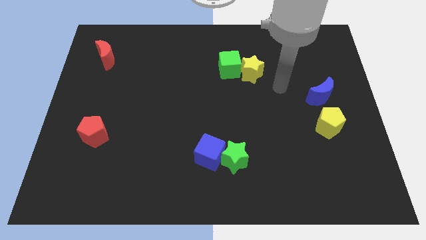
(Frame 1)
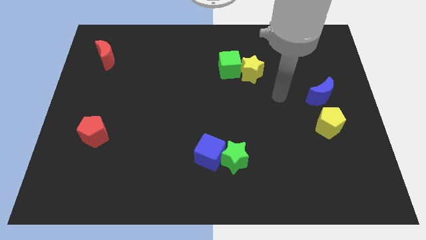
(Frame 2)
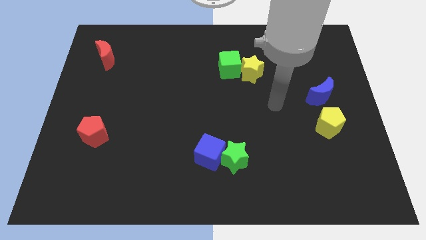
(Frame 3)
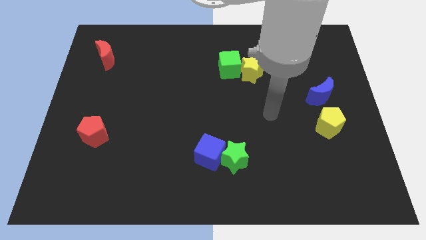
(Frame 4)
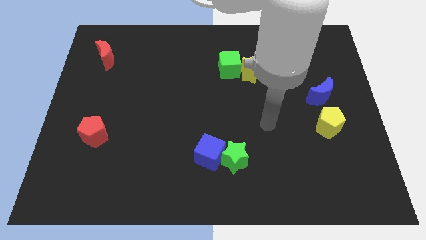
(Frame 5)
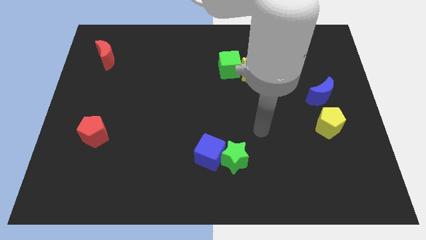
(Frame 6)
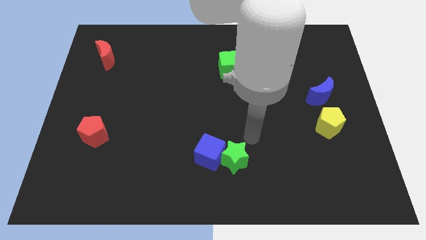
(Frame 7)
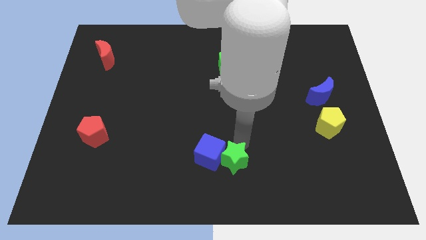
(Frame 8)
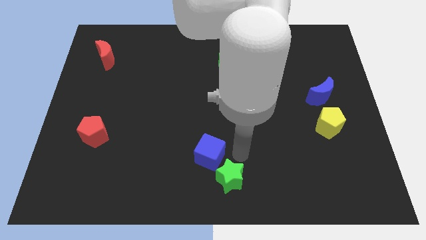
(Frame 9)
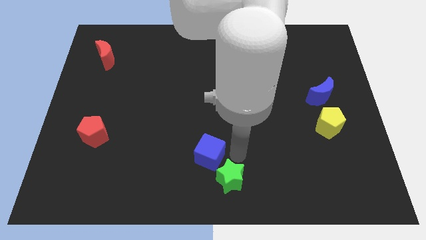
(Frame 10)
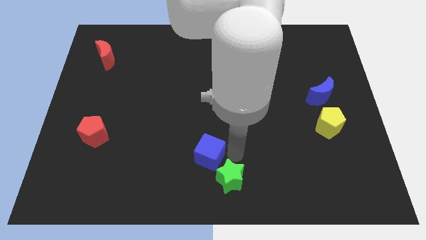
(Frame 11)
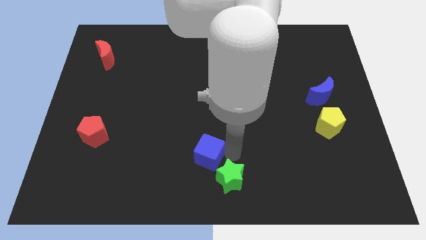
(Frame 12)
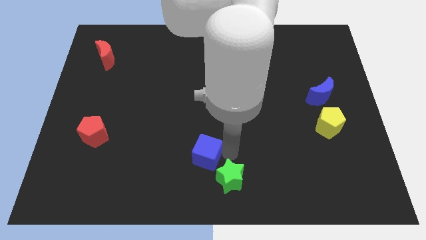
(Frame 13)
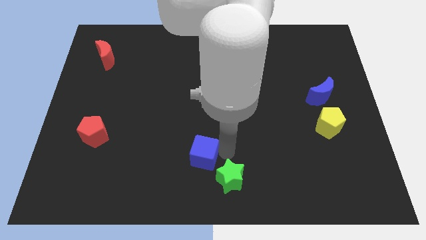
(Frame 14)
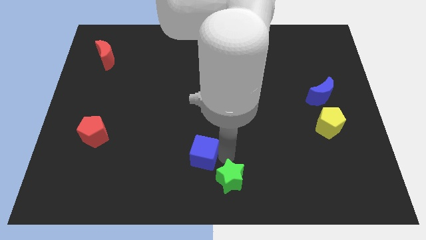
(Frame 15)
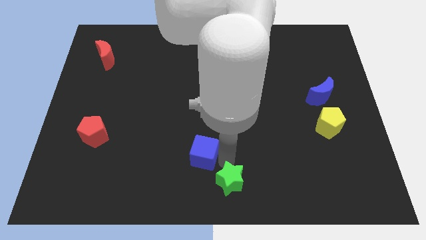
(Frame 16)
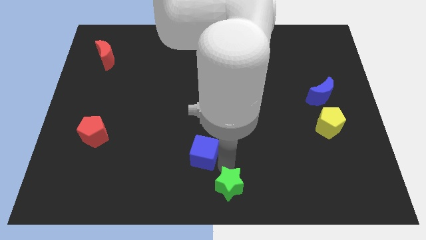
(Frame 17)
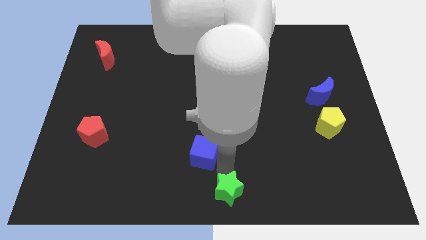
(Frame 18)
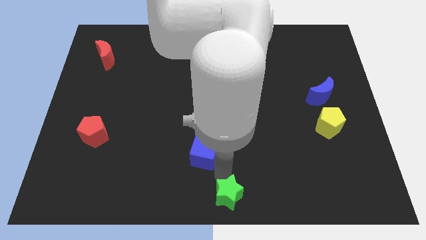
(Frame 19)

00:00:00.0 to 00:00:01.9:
pull the blue cube apart from the green star

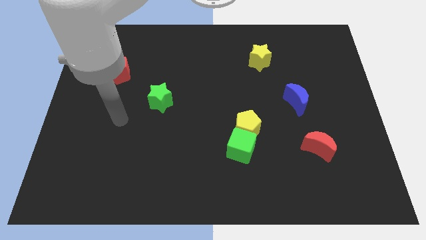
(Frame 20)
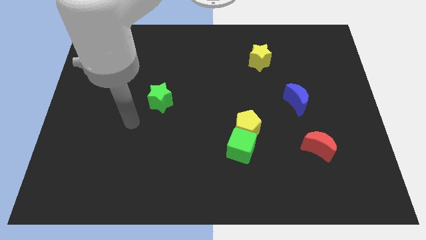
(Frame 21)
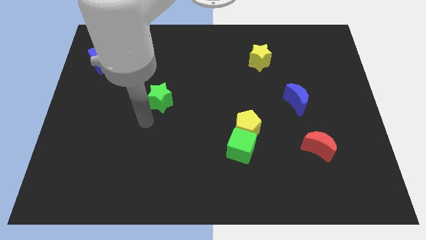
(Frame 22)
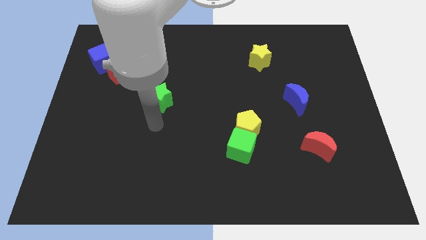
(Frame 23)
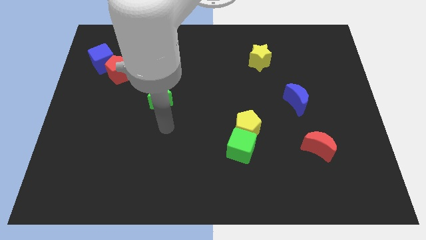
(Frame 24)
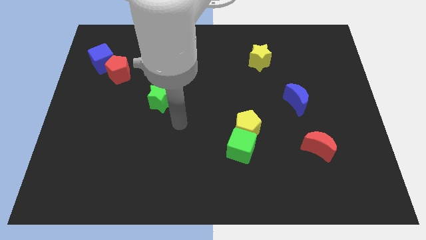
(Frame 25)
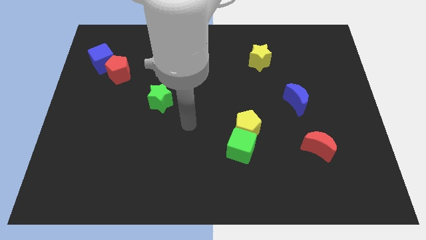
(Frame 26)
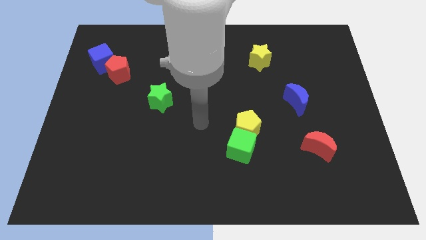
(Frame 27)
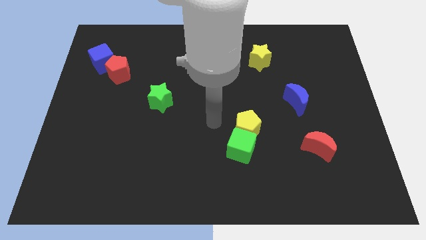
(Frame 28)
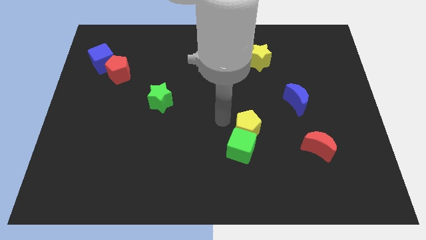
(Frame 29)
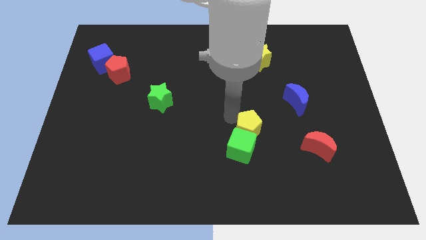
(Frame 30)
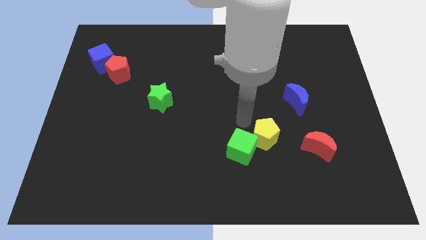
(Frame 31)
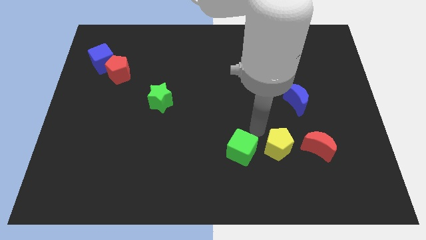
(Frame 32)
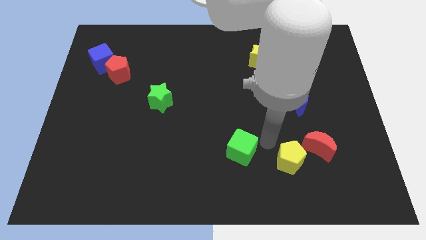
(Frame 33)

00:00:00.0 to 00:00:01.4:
pull the green cube apart from the yellow pentagon

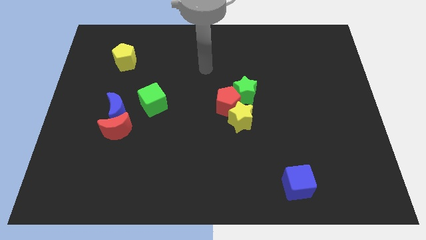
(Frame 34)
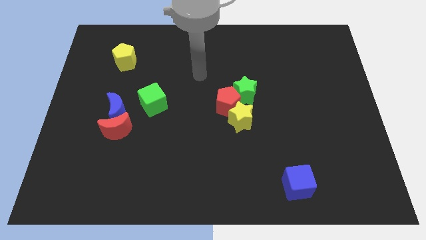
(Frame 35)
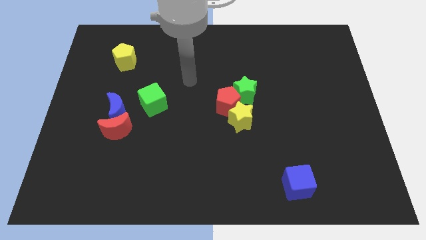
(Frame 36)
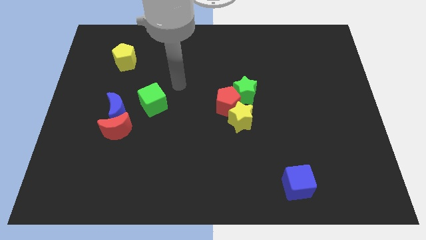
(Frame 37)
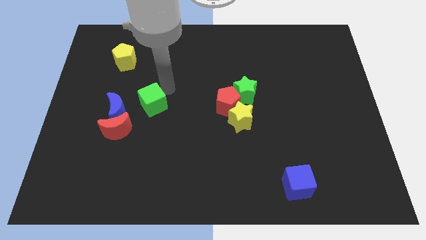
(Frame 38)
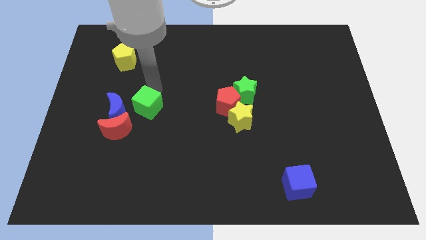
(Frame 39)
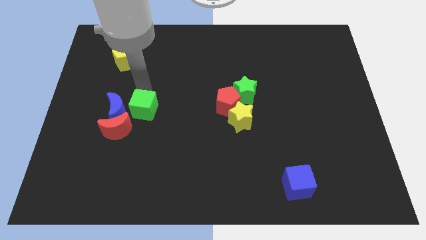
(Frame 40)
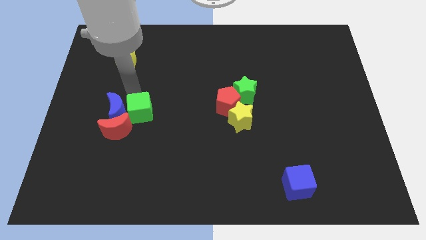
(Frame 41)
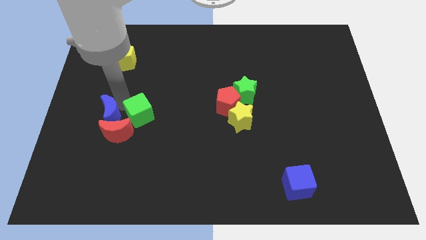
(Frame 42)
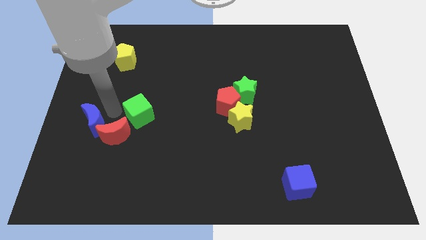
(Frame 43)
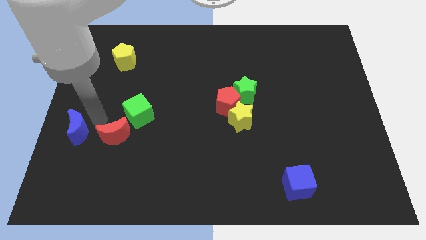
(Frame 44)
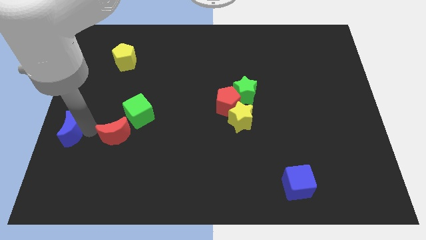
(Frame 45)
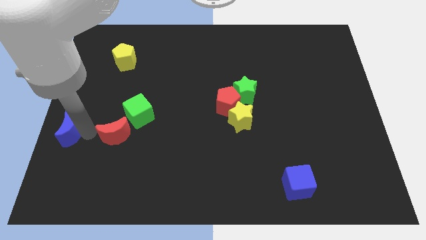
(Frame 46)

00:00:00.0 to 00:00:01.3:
pull the red moon apart from the blue moon

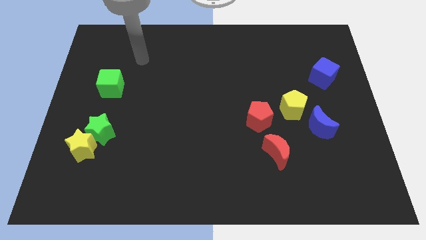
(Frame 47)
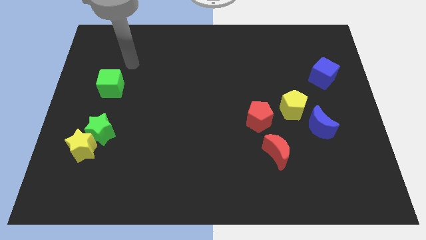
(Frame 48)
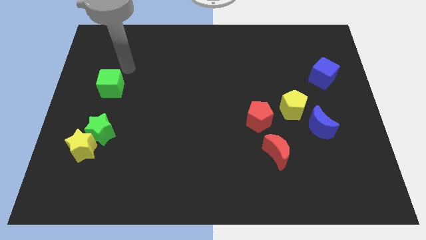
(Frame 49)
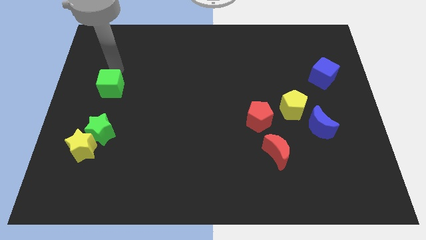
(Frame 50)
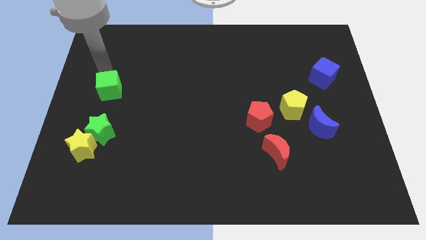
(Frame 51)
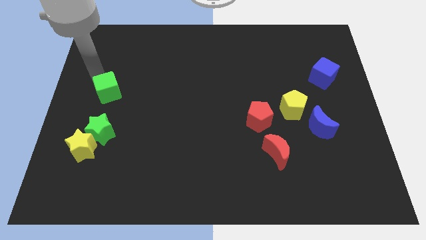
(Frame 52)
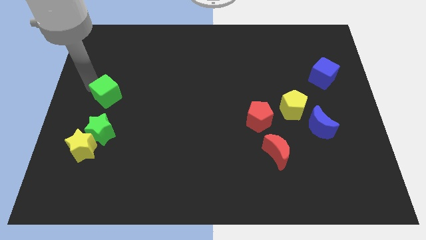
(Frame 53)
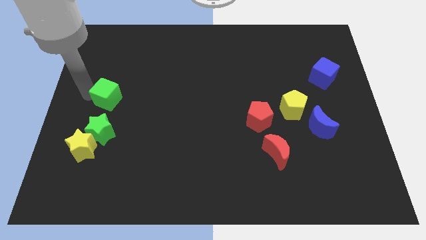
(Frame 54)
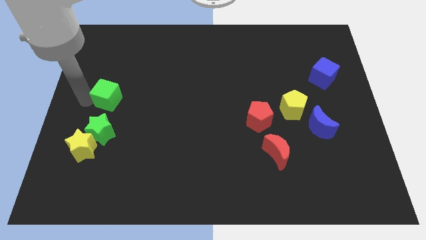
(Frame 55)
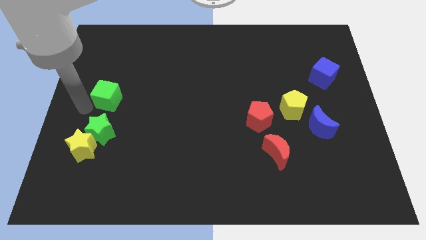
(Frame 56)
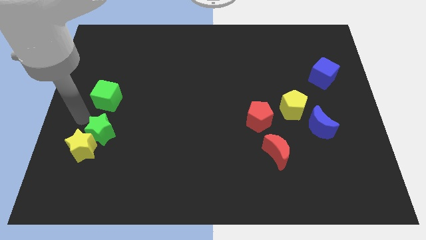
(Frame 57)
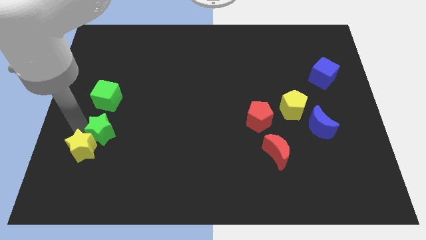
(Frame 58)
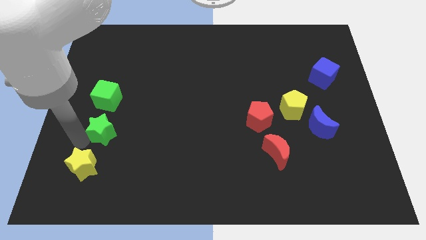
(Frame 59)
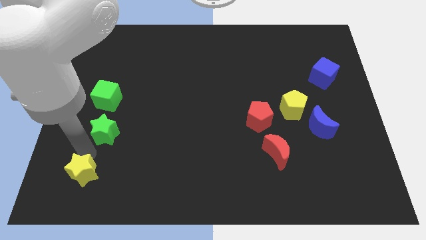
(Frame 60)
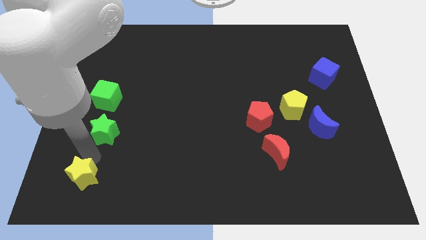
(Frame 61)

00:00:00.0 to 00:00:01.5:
separate the green star from the yellow star

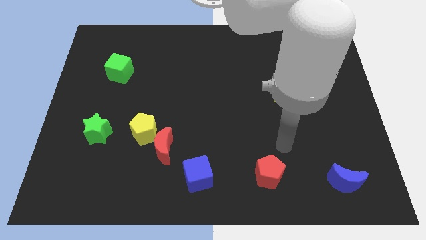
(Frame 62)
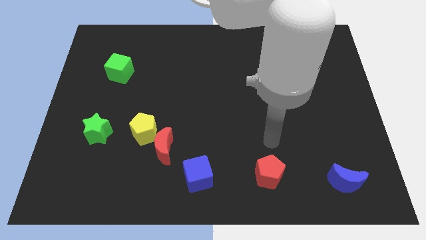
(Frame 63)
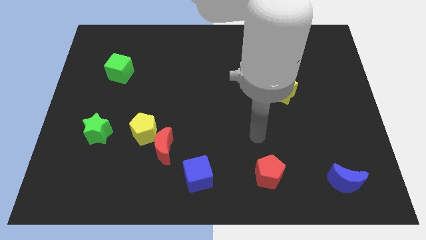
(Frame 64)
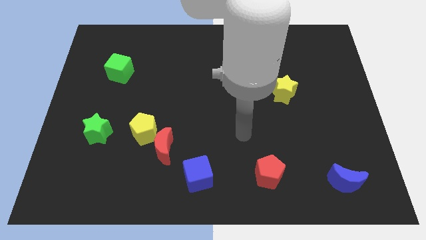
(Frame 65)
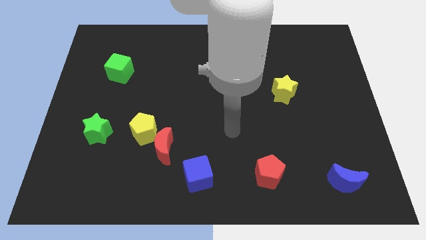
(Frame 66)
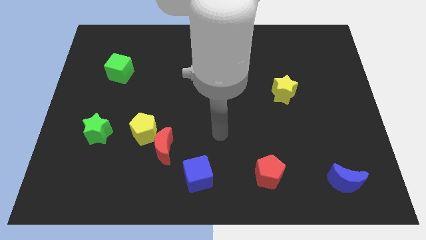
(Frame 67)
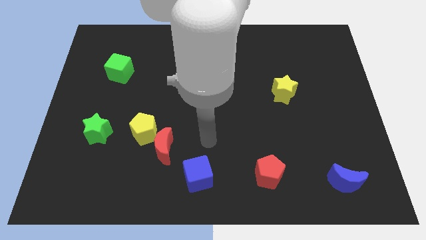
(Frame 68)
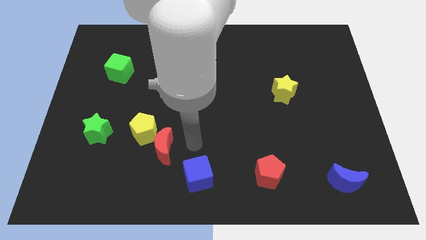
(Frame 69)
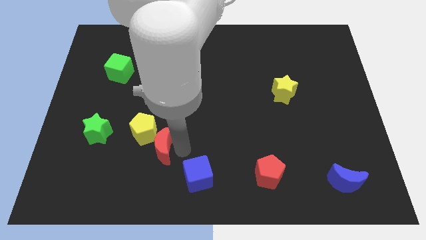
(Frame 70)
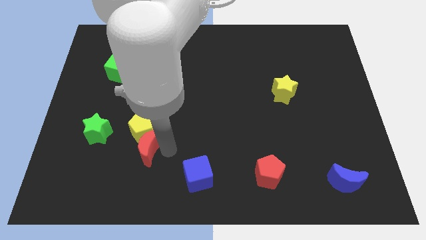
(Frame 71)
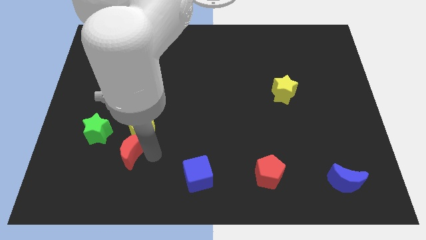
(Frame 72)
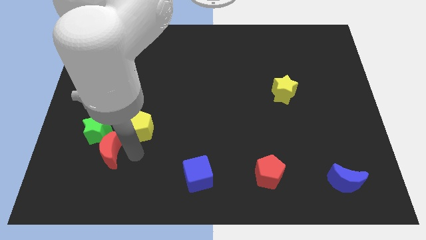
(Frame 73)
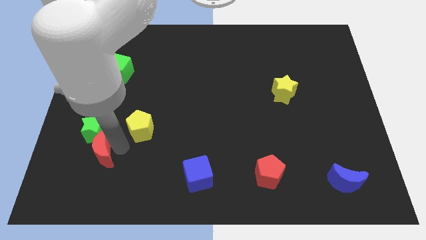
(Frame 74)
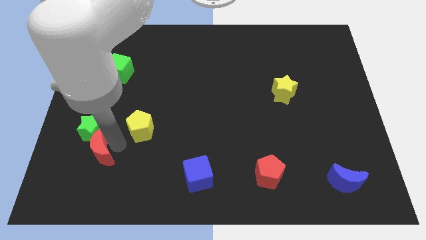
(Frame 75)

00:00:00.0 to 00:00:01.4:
separate the yellow pentagon from the red moon

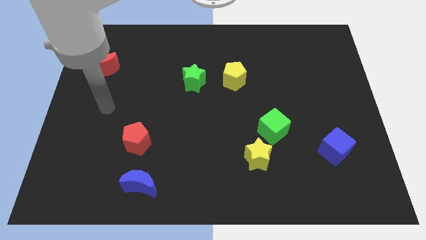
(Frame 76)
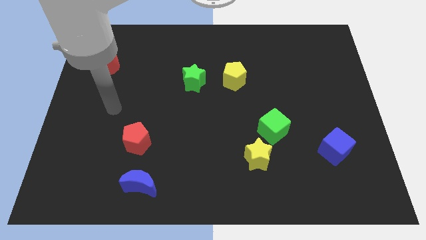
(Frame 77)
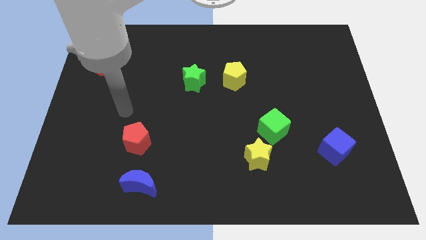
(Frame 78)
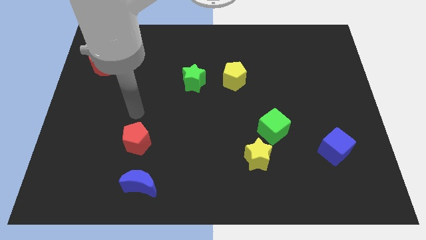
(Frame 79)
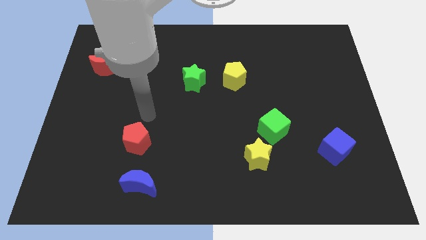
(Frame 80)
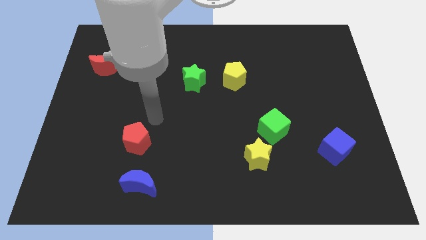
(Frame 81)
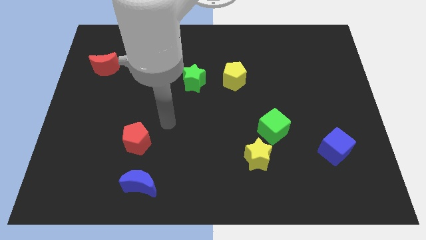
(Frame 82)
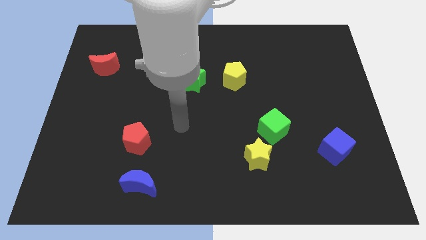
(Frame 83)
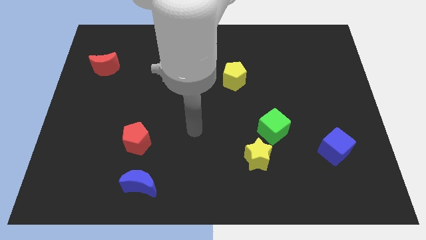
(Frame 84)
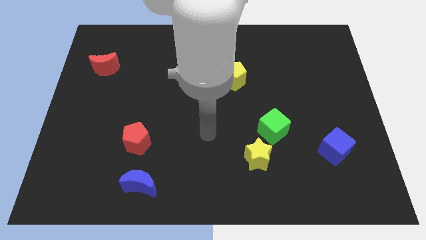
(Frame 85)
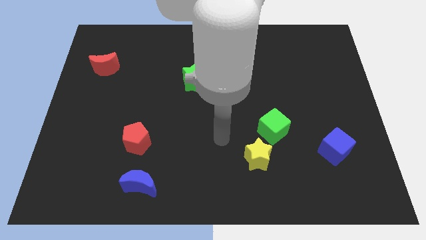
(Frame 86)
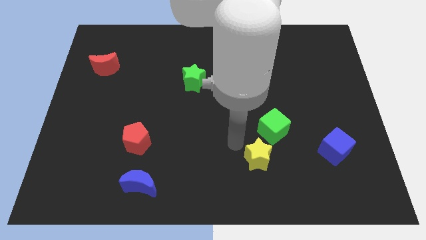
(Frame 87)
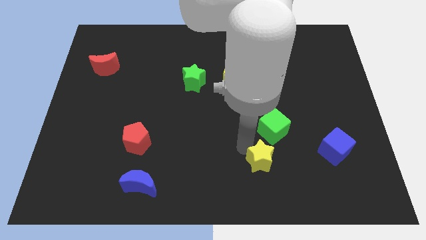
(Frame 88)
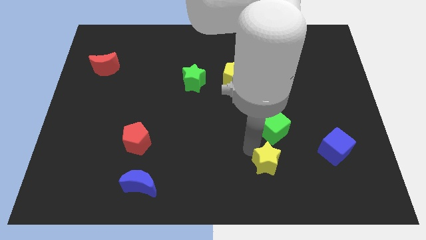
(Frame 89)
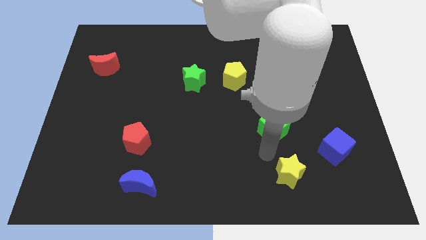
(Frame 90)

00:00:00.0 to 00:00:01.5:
move the green cube away from the yellow star

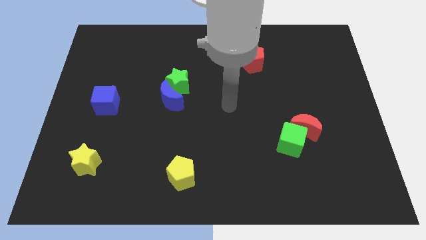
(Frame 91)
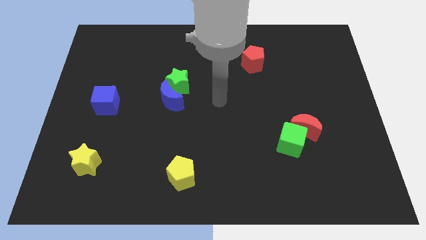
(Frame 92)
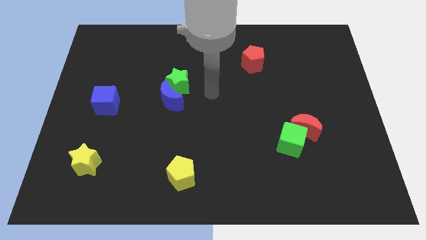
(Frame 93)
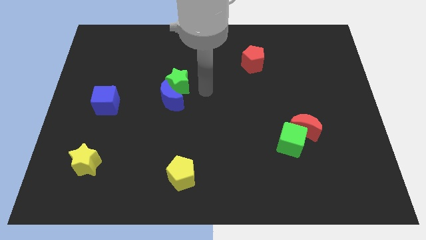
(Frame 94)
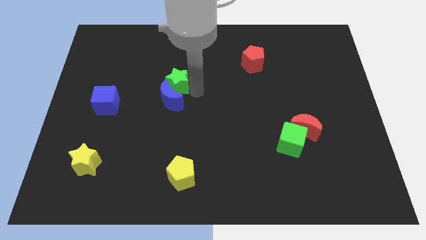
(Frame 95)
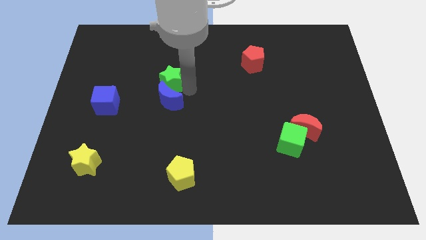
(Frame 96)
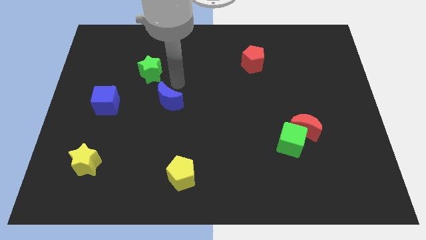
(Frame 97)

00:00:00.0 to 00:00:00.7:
move the blue moon away from the green star
